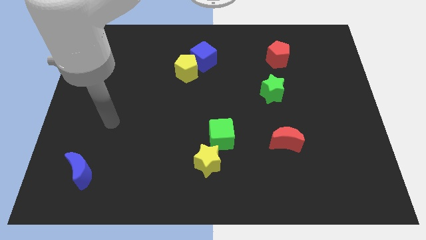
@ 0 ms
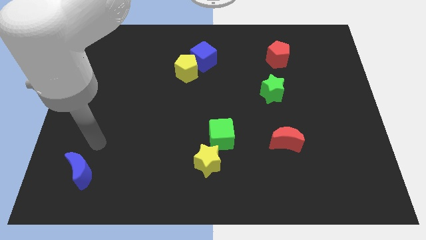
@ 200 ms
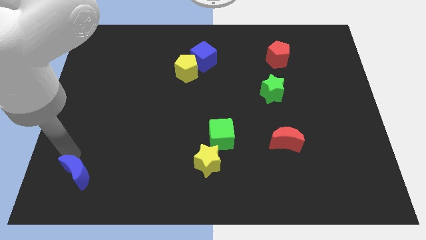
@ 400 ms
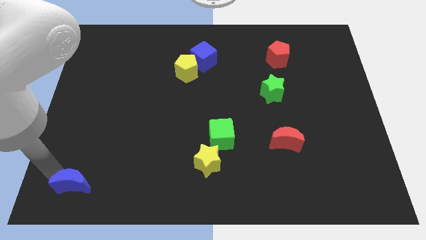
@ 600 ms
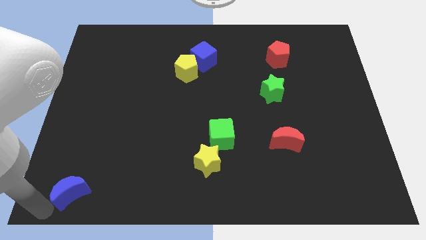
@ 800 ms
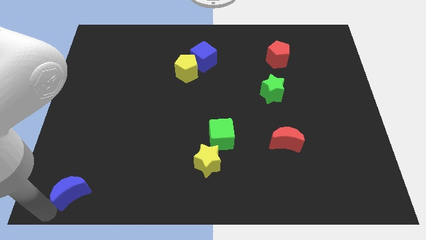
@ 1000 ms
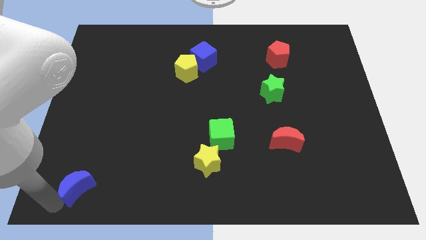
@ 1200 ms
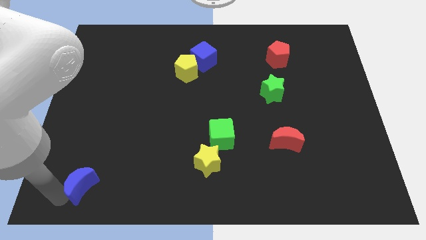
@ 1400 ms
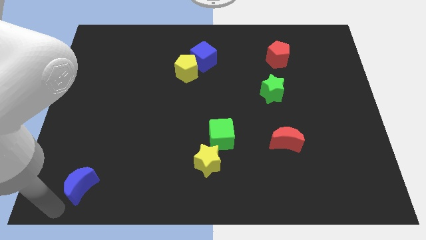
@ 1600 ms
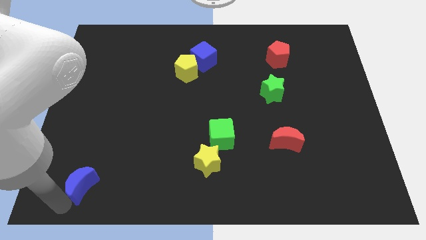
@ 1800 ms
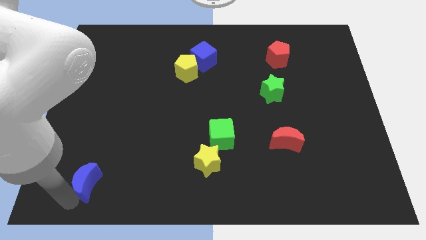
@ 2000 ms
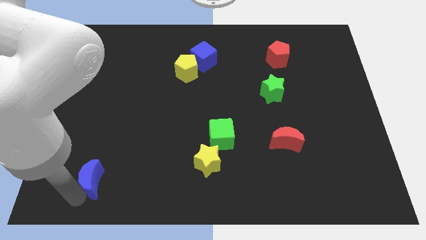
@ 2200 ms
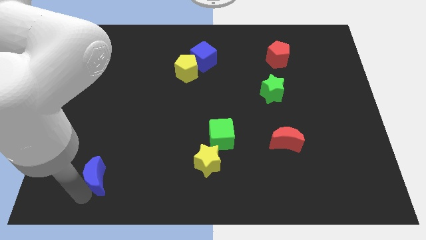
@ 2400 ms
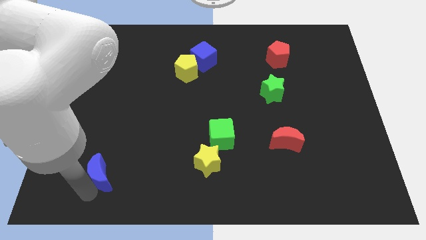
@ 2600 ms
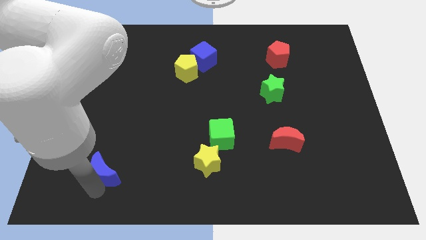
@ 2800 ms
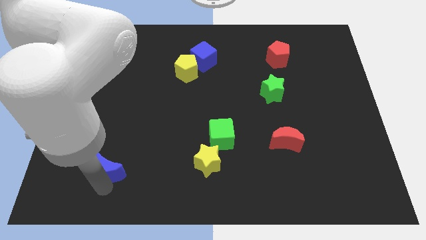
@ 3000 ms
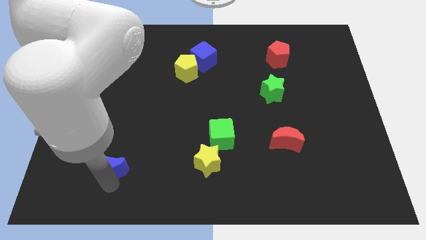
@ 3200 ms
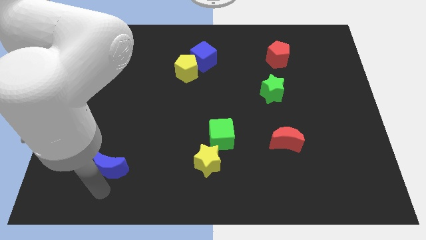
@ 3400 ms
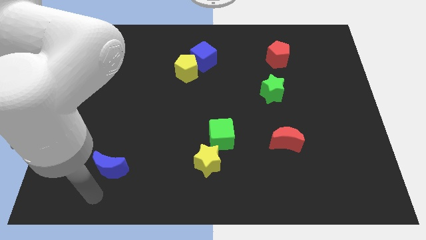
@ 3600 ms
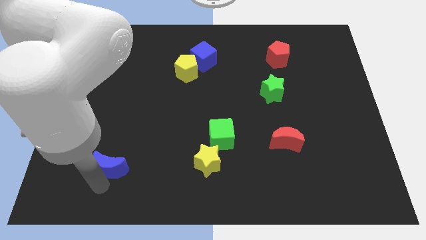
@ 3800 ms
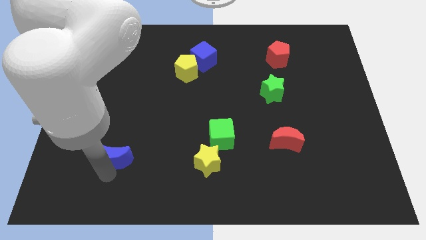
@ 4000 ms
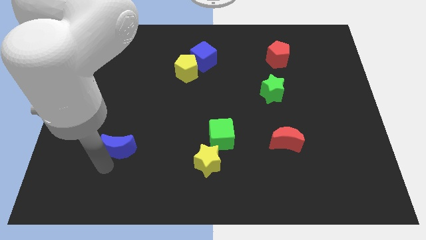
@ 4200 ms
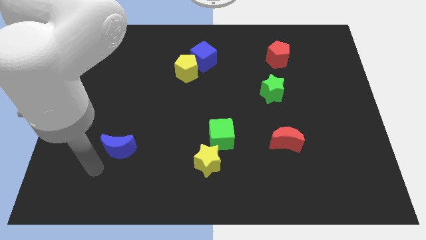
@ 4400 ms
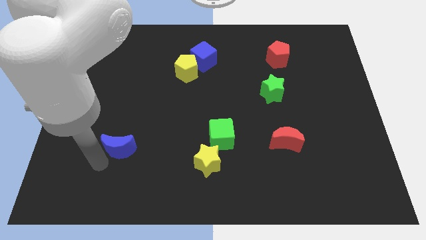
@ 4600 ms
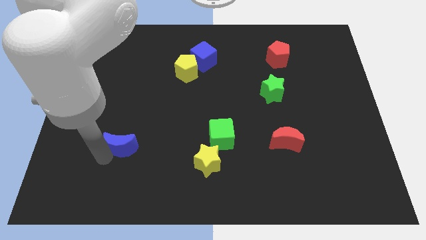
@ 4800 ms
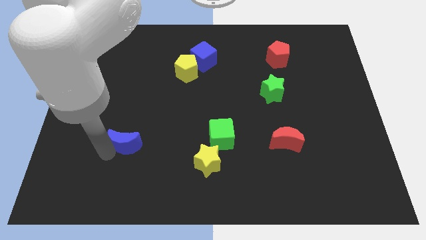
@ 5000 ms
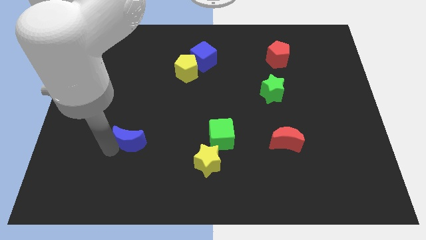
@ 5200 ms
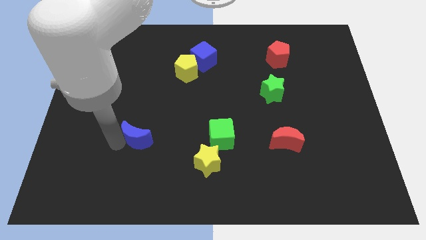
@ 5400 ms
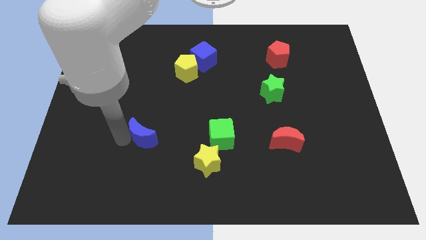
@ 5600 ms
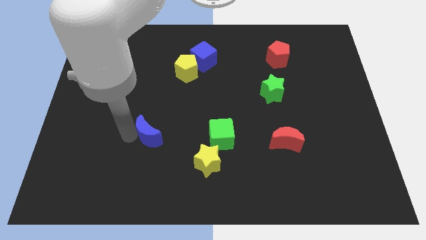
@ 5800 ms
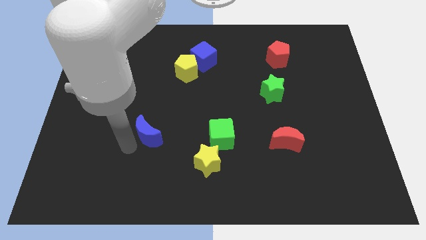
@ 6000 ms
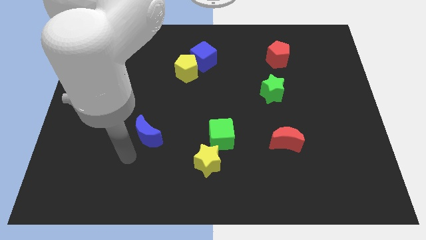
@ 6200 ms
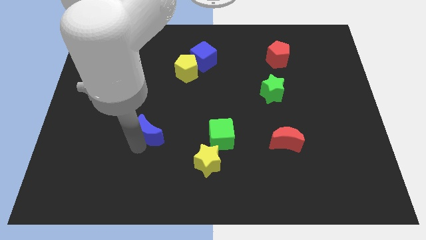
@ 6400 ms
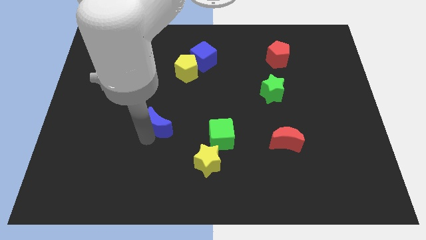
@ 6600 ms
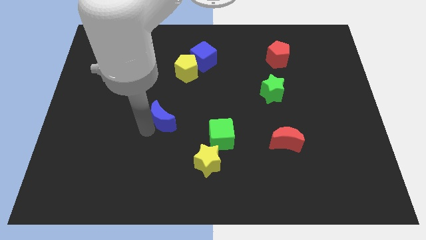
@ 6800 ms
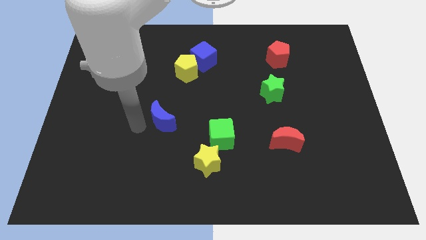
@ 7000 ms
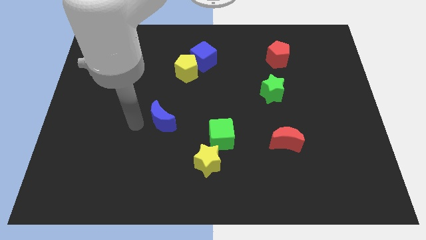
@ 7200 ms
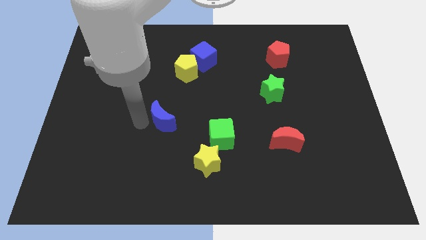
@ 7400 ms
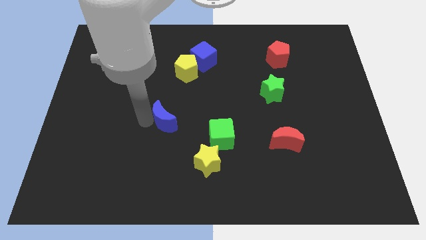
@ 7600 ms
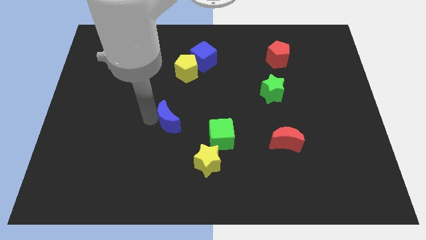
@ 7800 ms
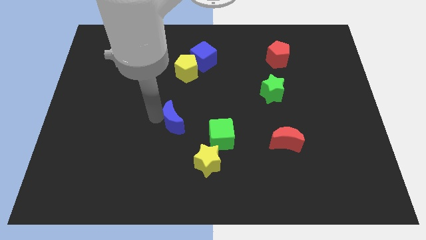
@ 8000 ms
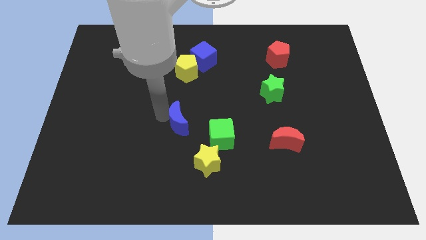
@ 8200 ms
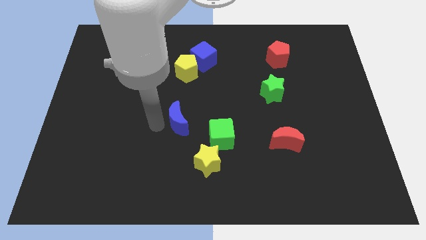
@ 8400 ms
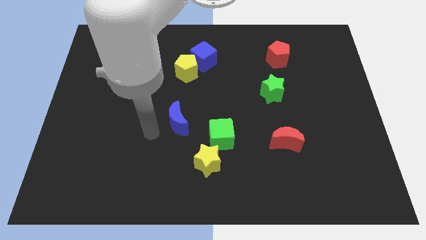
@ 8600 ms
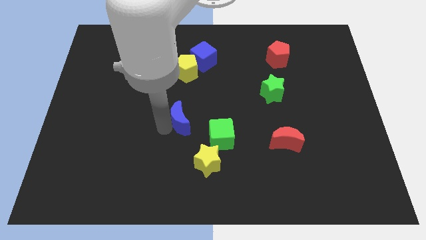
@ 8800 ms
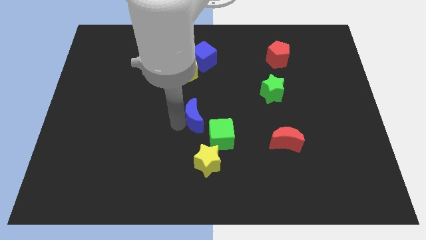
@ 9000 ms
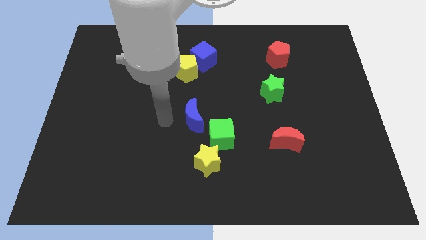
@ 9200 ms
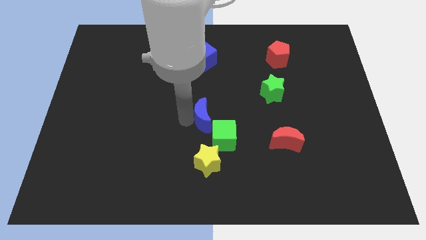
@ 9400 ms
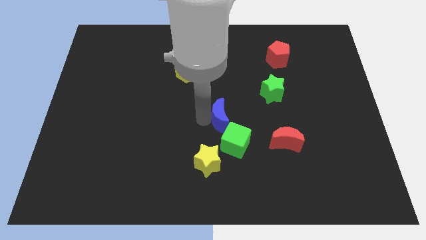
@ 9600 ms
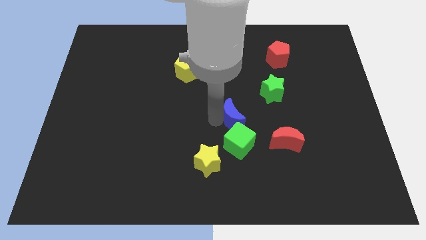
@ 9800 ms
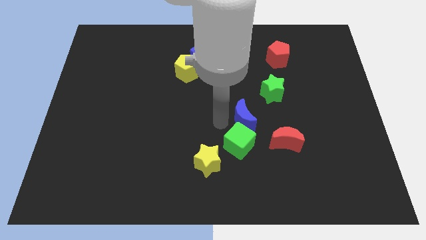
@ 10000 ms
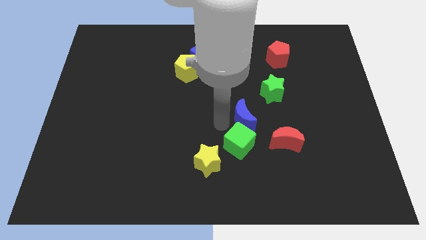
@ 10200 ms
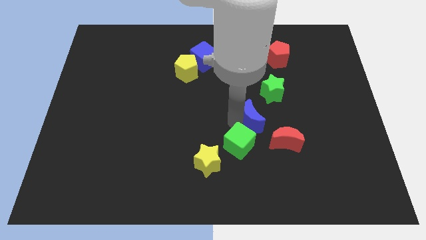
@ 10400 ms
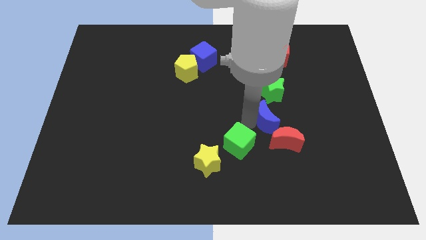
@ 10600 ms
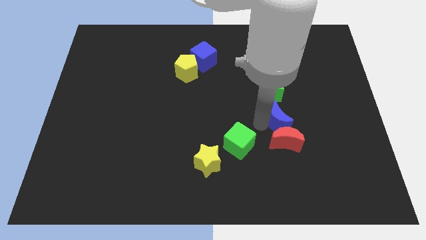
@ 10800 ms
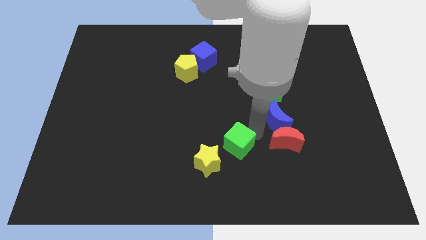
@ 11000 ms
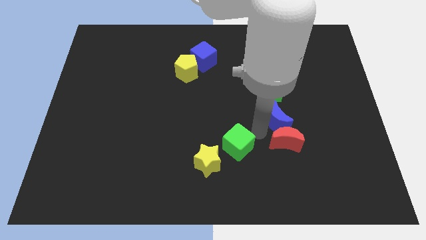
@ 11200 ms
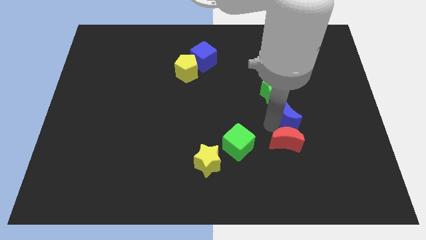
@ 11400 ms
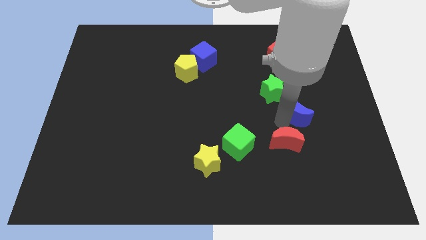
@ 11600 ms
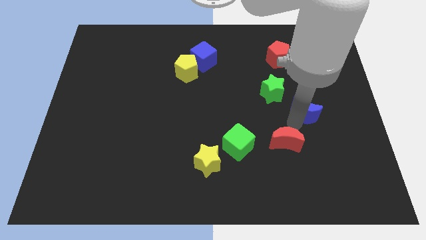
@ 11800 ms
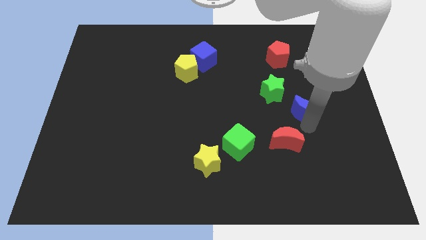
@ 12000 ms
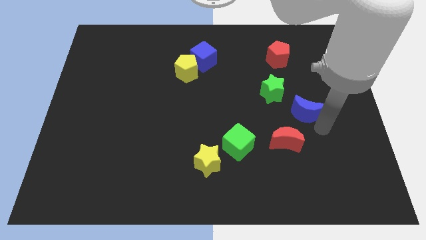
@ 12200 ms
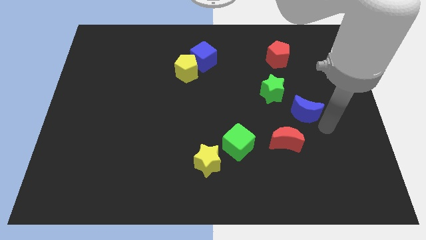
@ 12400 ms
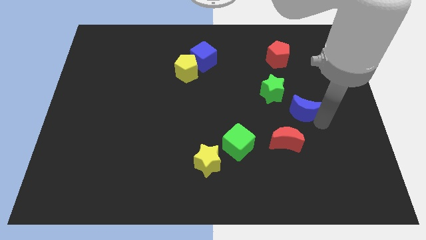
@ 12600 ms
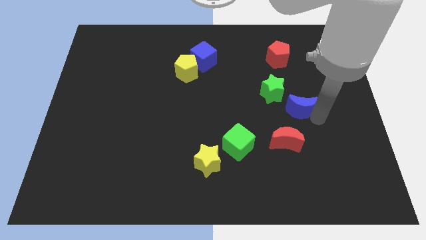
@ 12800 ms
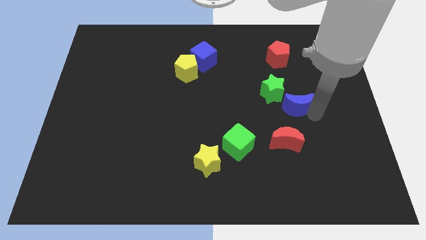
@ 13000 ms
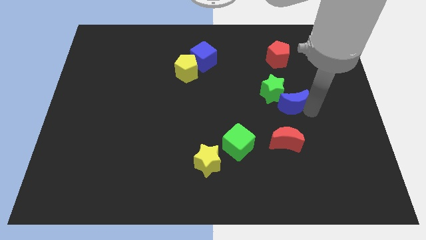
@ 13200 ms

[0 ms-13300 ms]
slide the blue moon to the bottom side of the red pentagon
